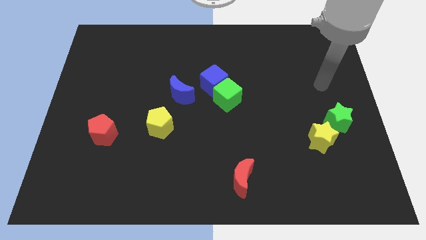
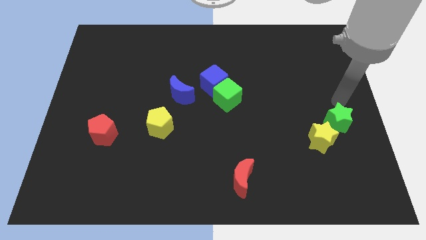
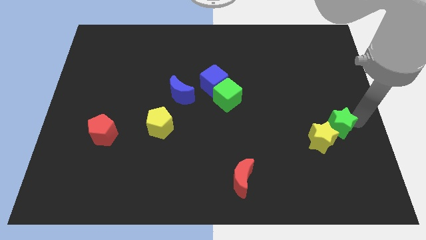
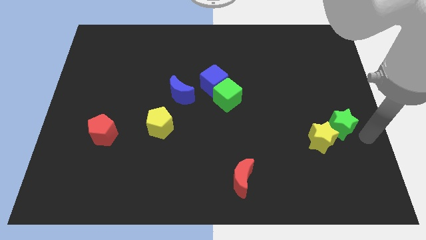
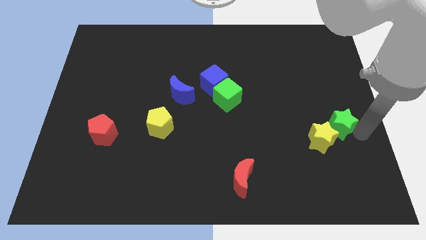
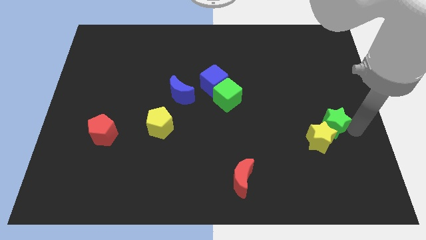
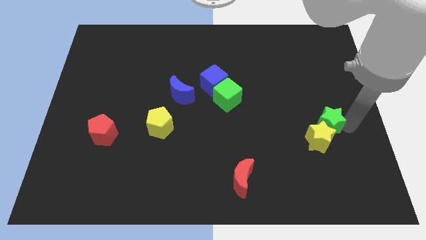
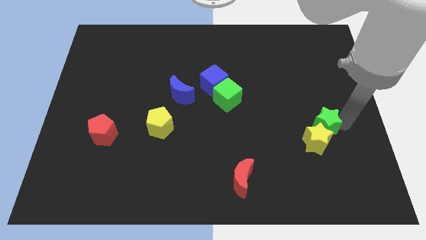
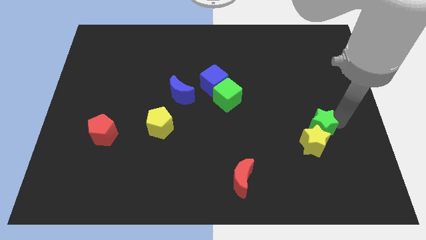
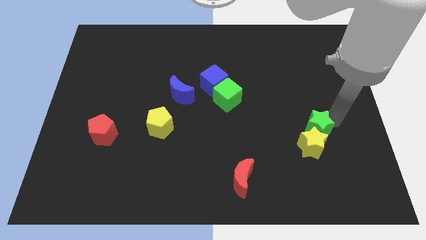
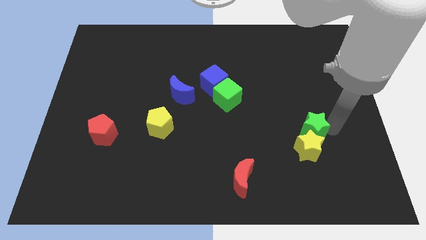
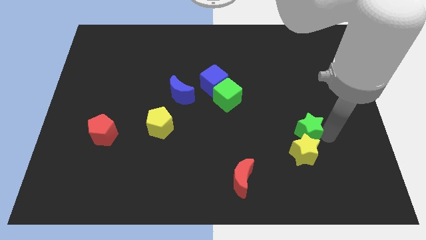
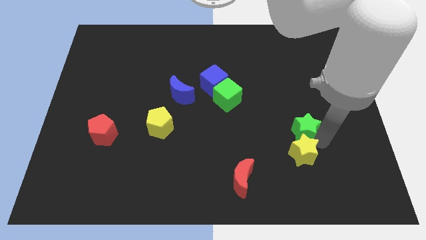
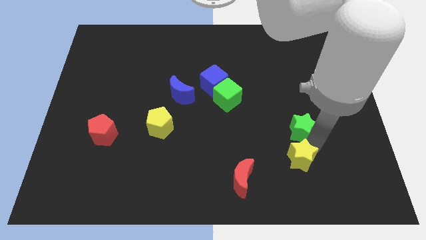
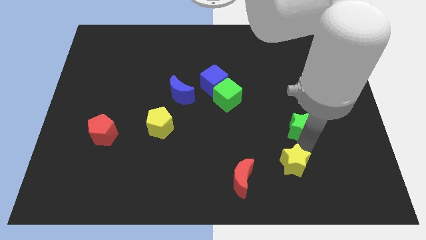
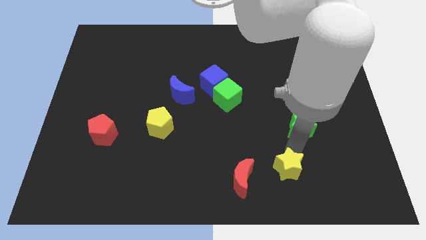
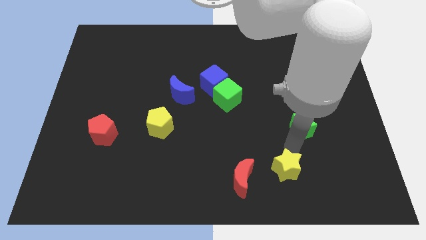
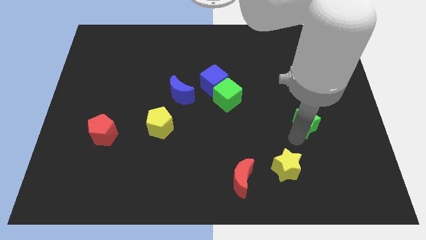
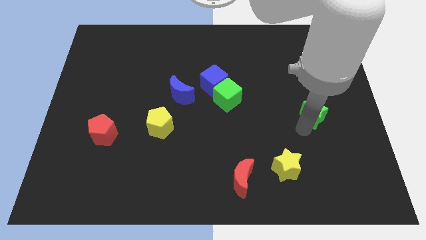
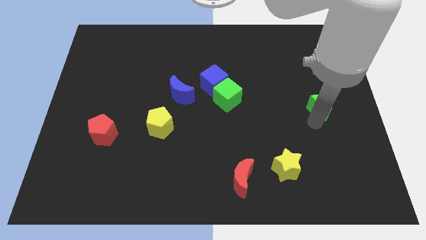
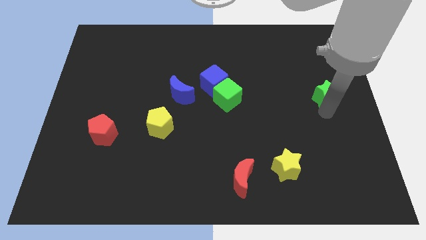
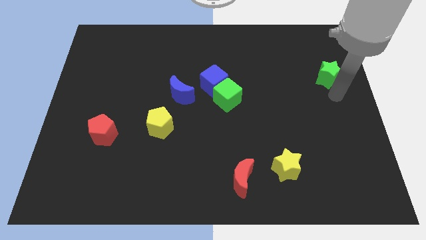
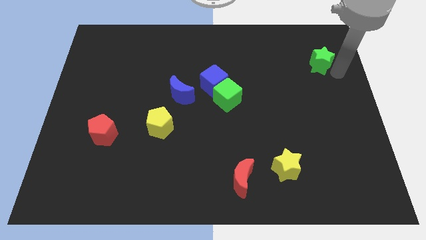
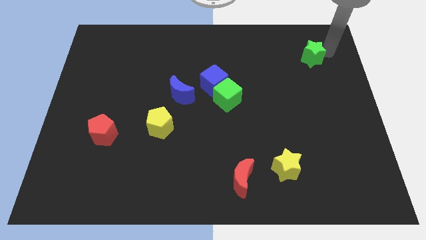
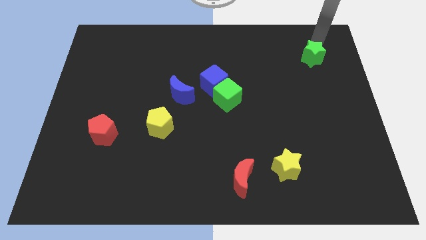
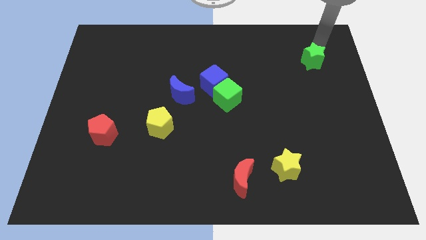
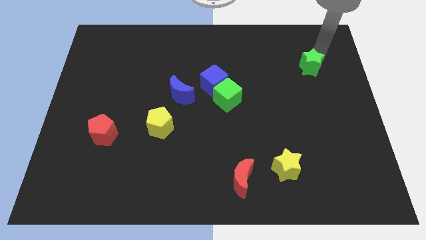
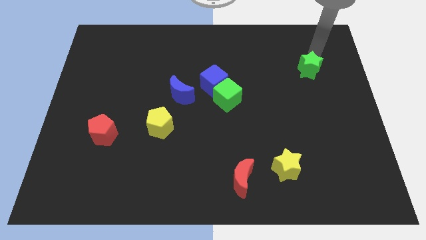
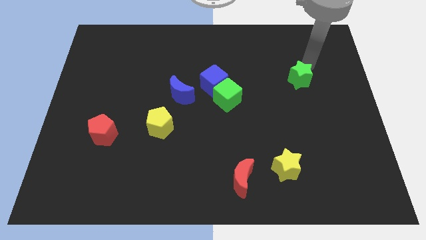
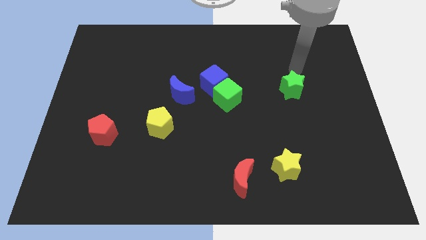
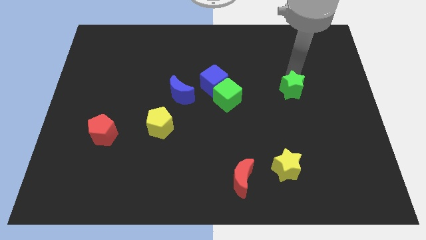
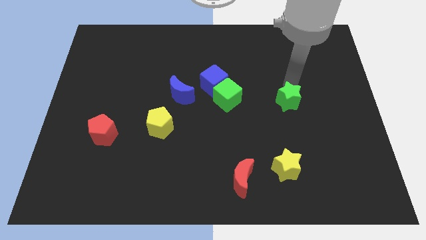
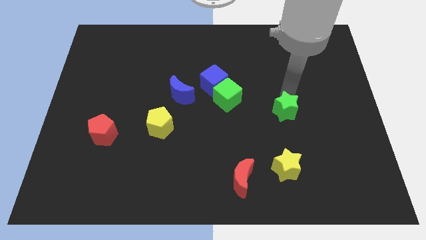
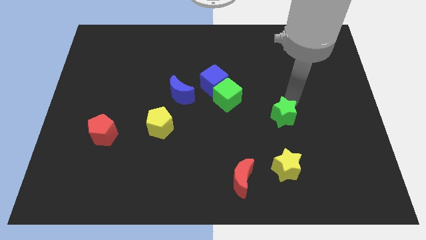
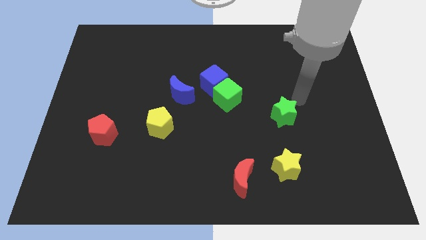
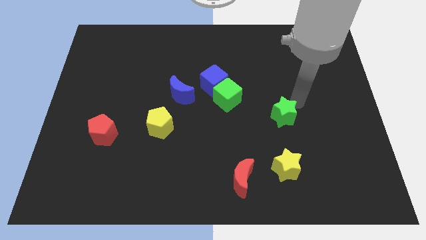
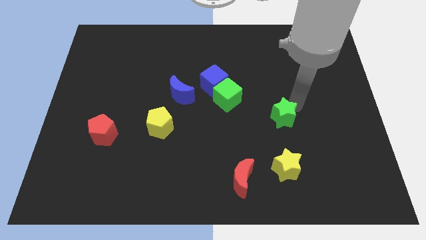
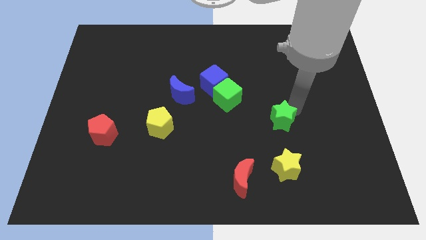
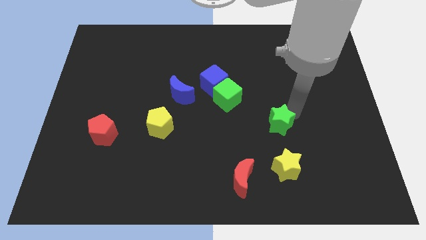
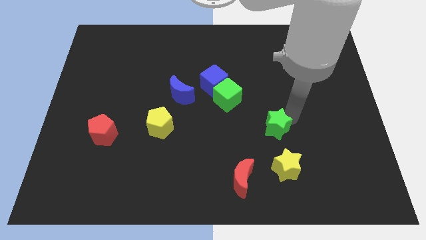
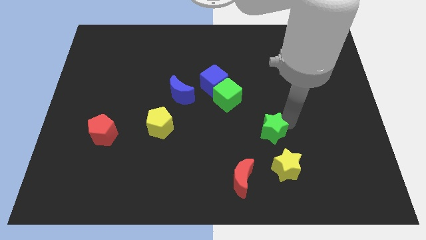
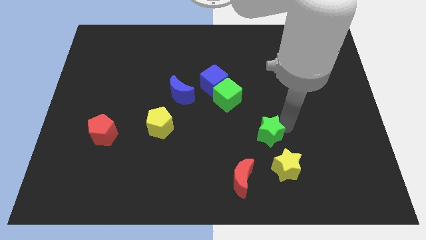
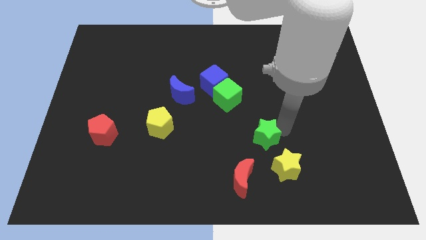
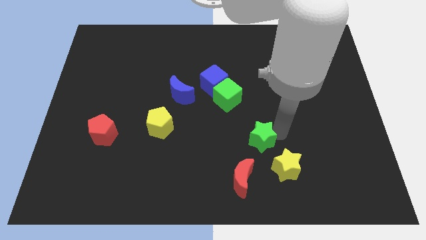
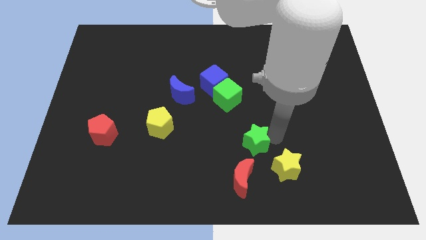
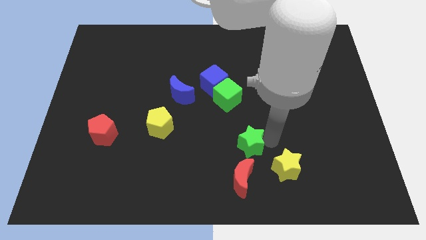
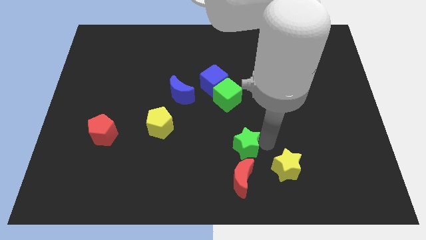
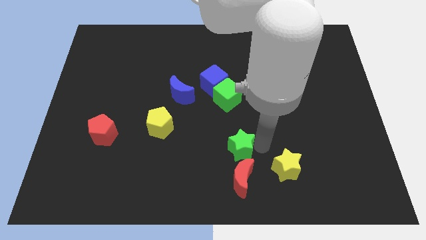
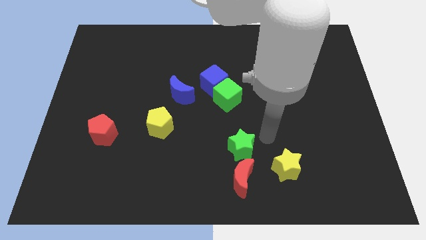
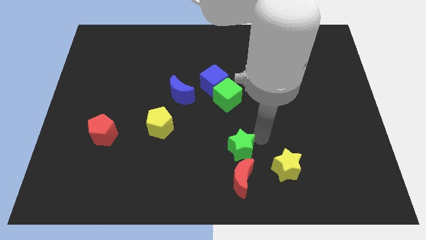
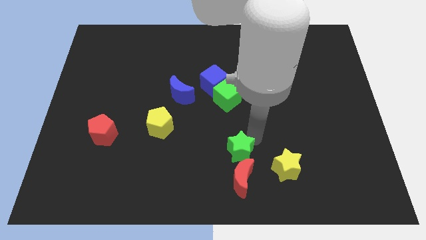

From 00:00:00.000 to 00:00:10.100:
slide the green star to the top left of the red moon

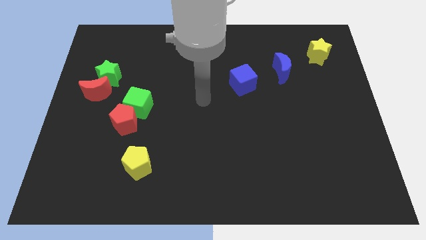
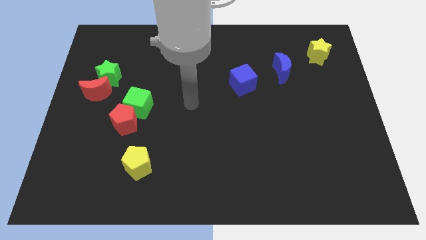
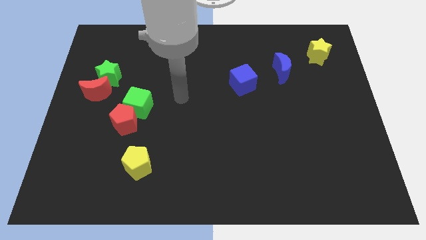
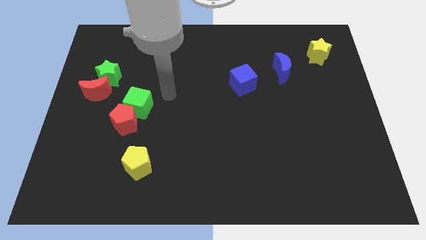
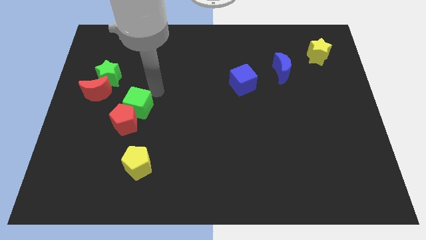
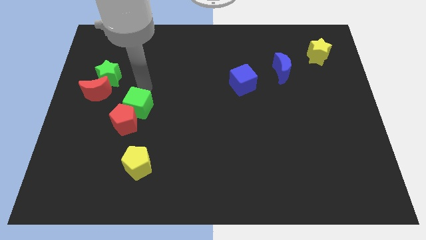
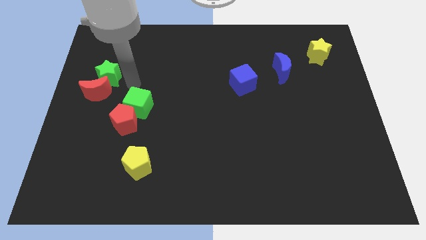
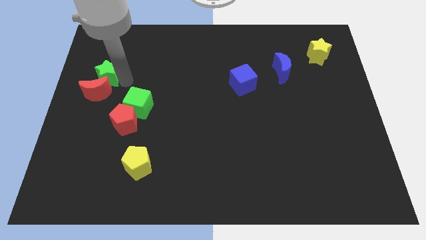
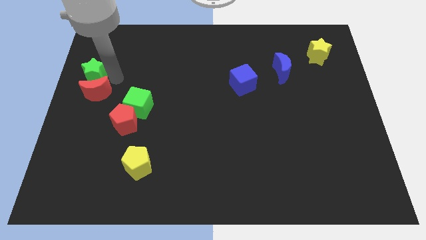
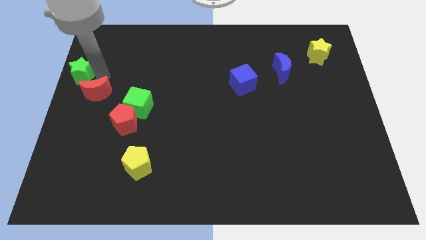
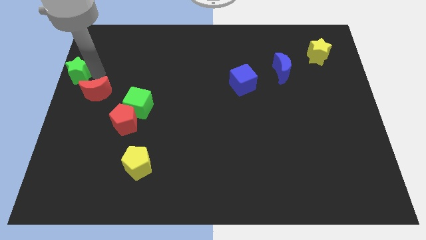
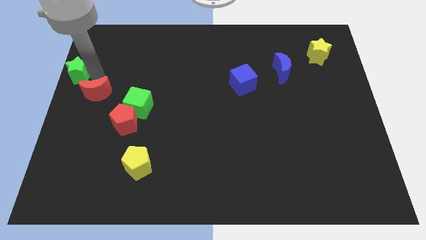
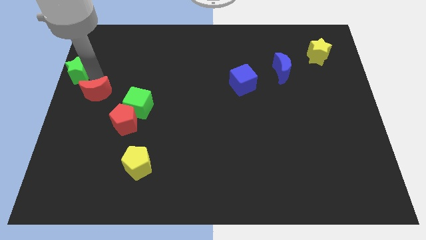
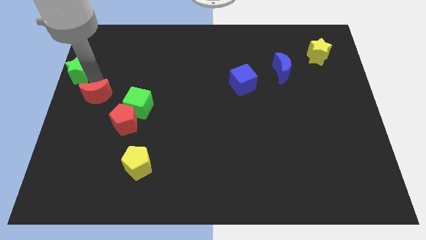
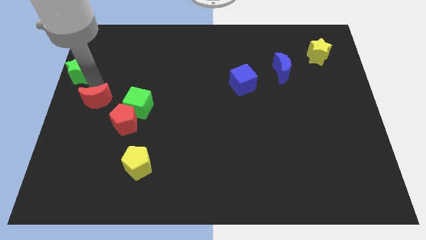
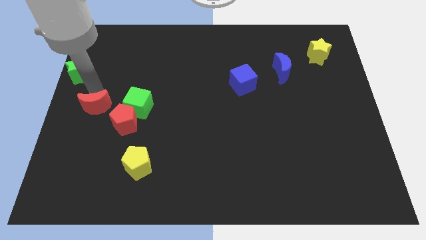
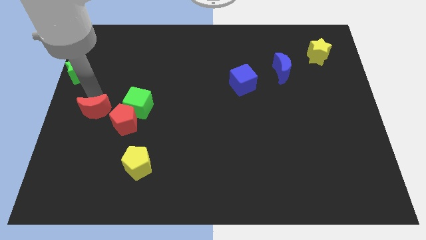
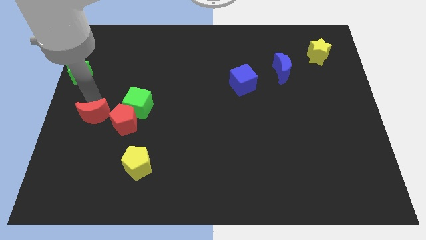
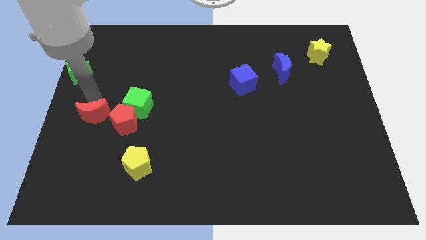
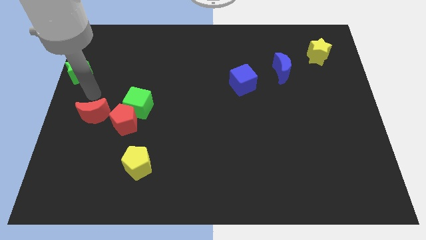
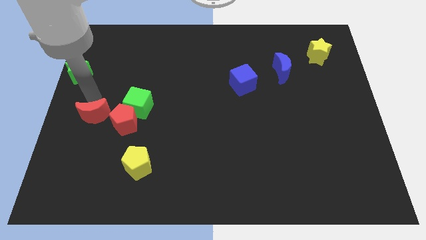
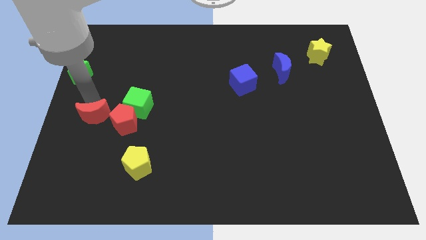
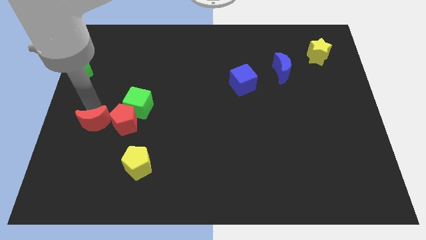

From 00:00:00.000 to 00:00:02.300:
move the red moon diagonally down and to the left of the red pentagon
